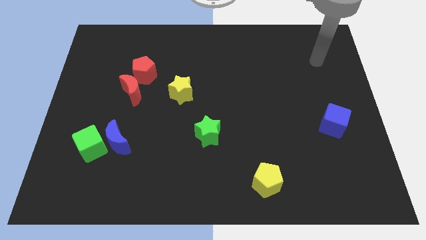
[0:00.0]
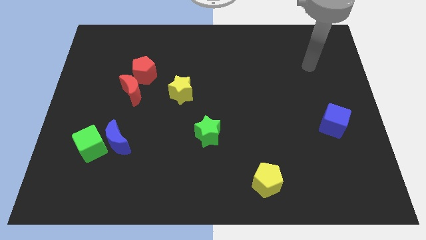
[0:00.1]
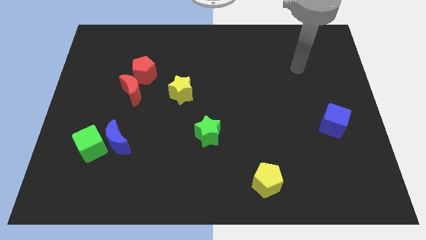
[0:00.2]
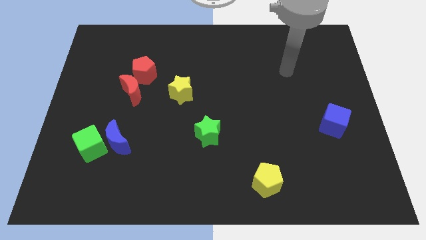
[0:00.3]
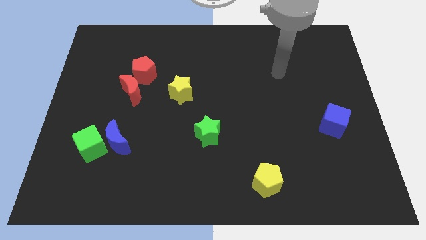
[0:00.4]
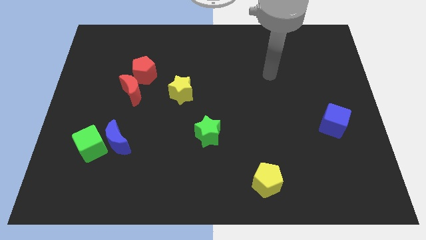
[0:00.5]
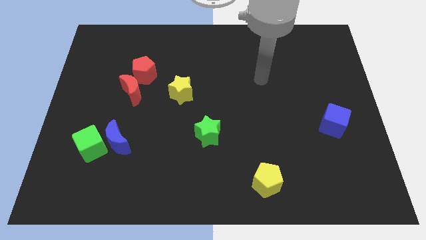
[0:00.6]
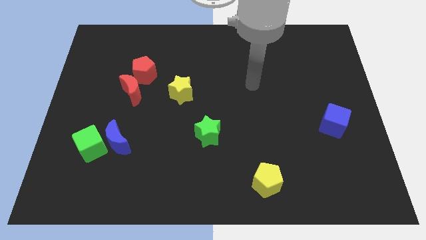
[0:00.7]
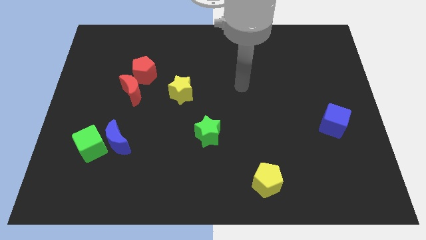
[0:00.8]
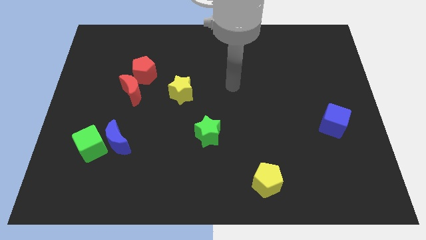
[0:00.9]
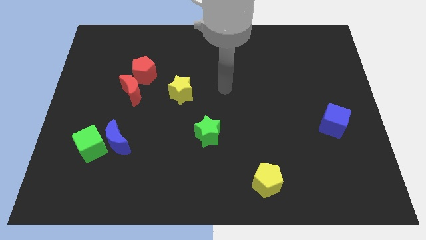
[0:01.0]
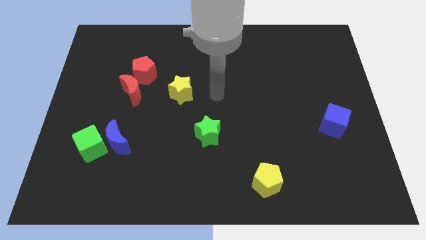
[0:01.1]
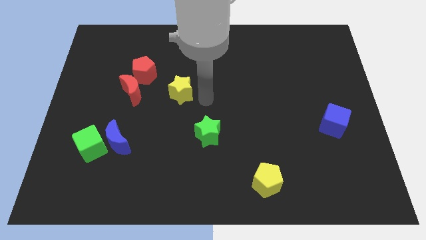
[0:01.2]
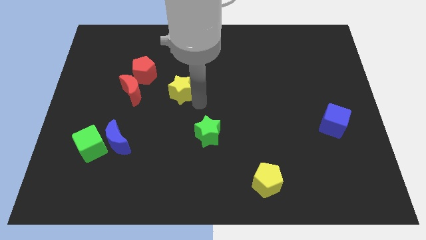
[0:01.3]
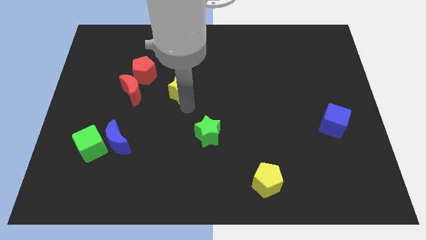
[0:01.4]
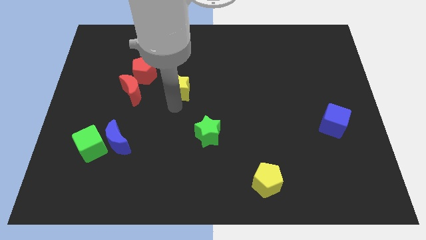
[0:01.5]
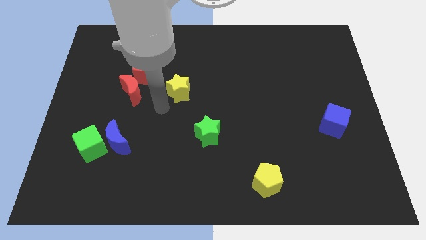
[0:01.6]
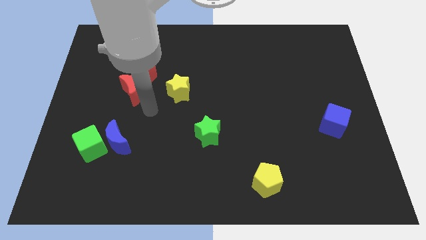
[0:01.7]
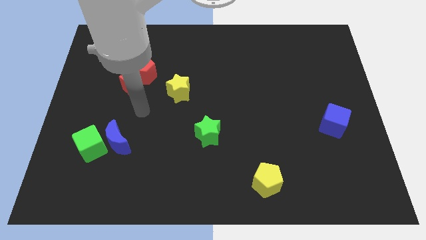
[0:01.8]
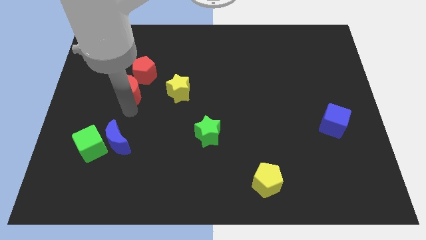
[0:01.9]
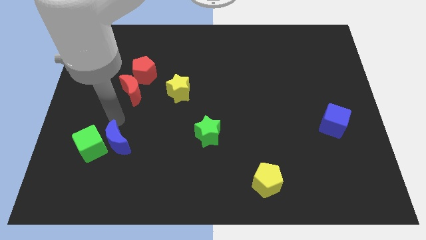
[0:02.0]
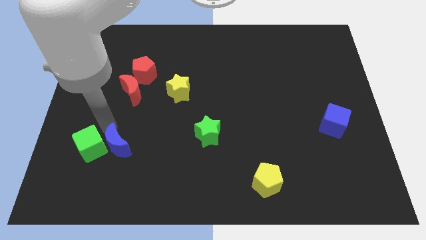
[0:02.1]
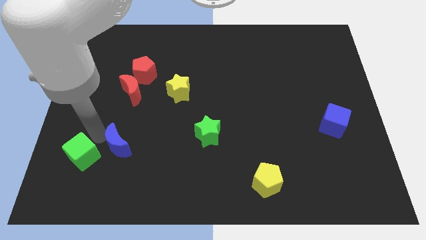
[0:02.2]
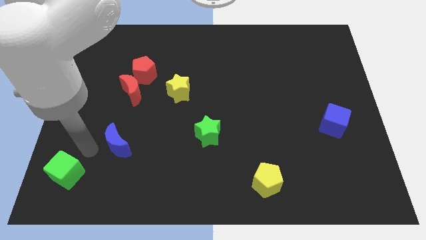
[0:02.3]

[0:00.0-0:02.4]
separate the blue moon from the green cube

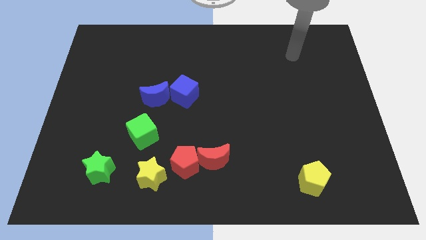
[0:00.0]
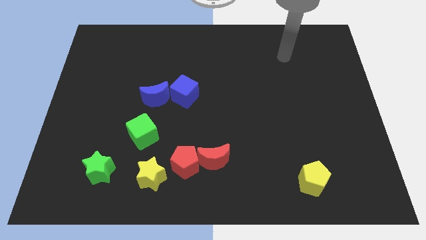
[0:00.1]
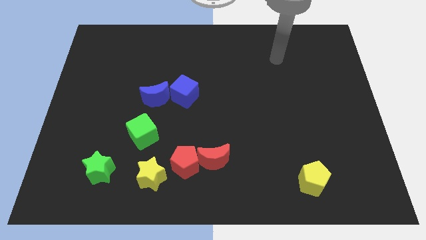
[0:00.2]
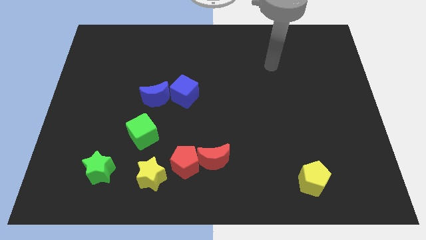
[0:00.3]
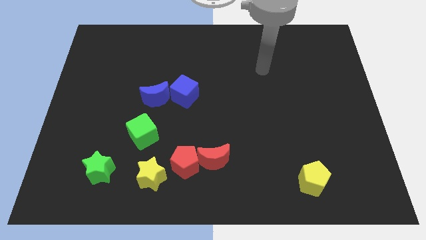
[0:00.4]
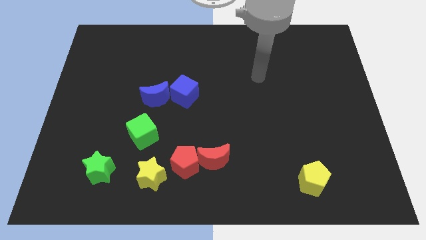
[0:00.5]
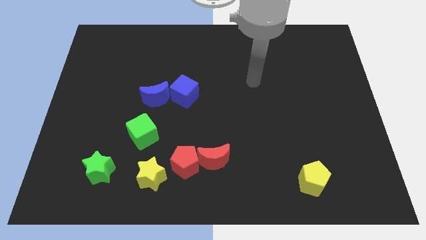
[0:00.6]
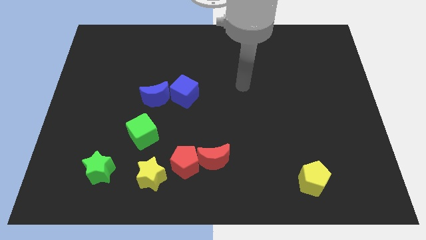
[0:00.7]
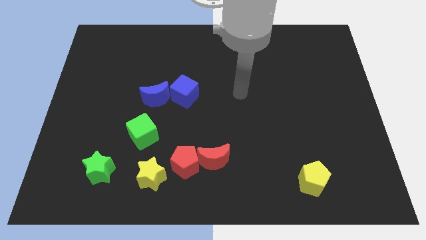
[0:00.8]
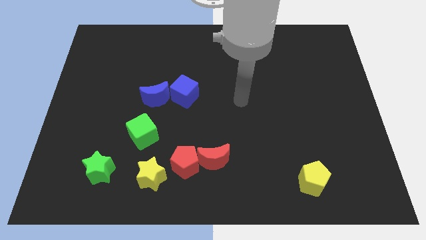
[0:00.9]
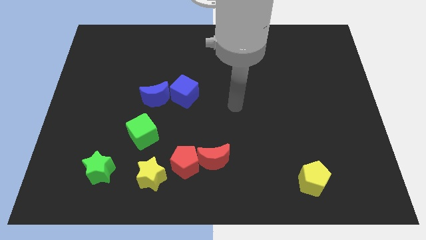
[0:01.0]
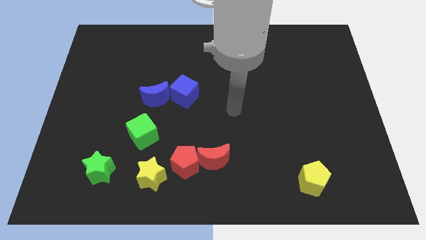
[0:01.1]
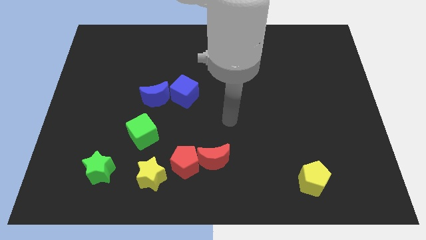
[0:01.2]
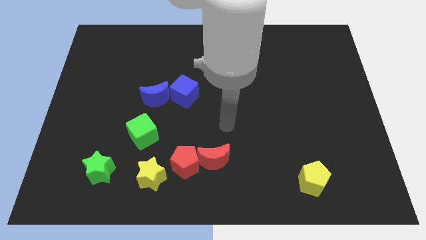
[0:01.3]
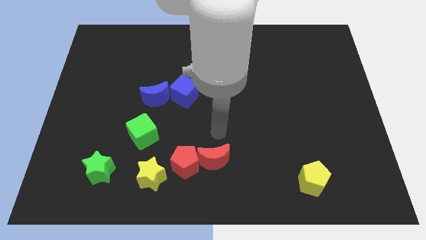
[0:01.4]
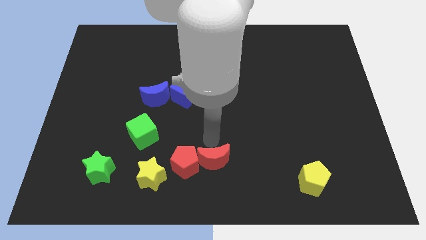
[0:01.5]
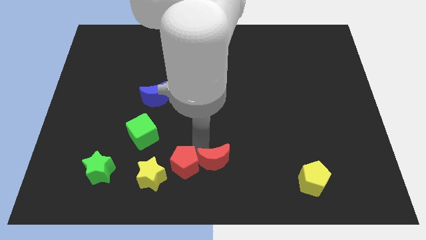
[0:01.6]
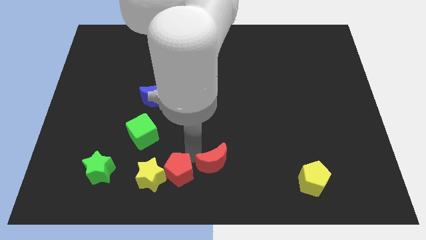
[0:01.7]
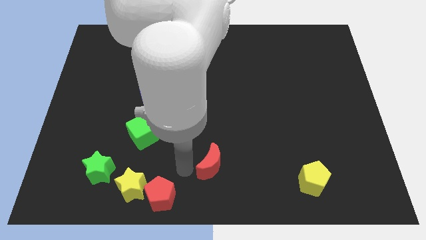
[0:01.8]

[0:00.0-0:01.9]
separate the red moon from the red pentagon

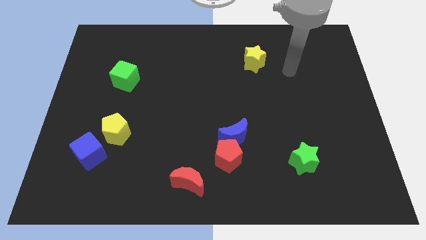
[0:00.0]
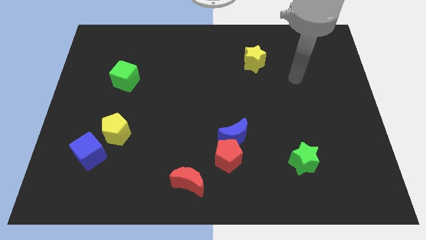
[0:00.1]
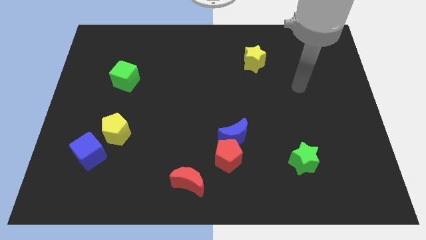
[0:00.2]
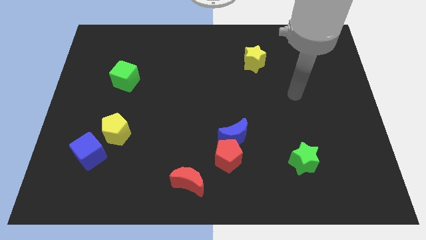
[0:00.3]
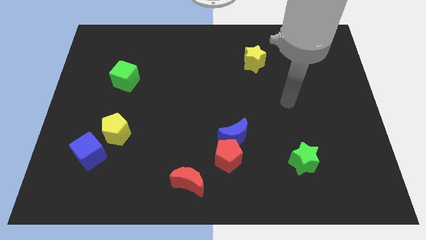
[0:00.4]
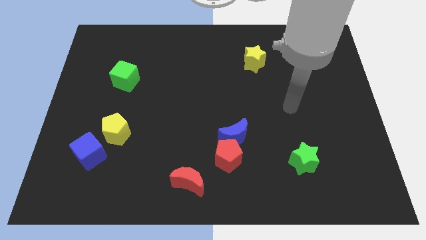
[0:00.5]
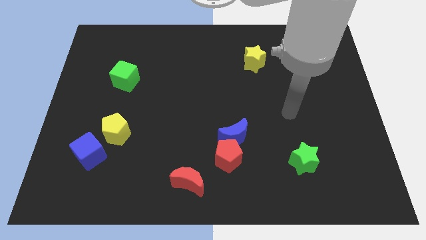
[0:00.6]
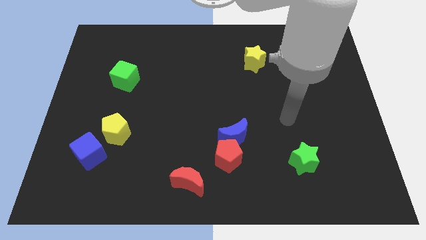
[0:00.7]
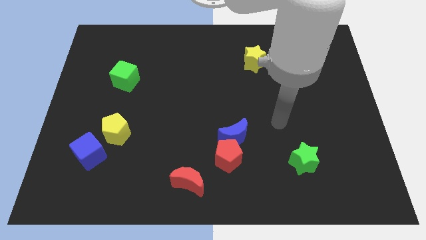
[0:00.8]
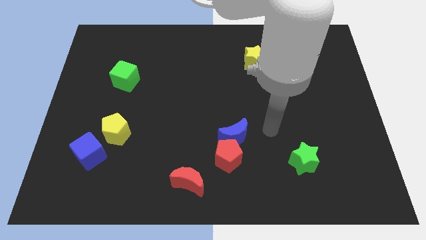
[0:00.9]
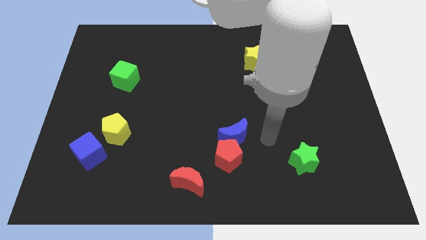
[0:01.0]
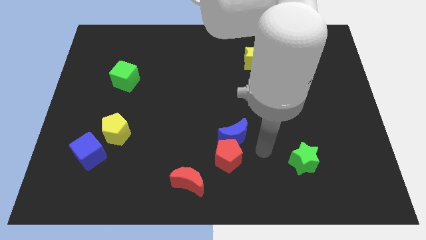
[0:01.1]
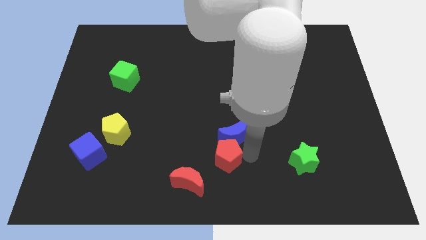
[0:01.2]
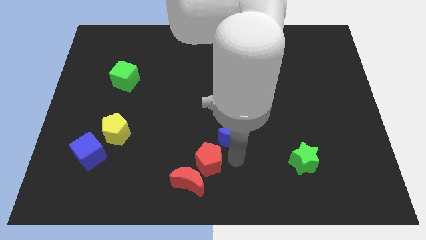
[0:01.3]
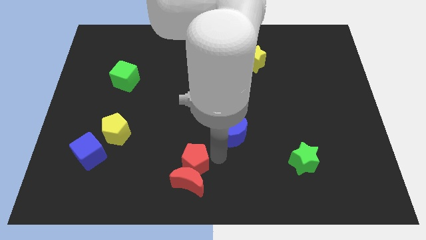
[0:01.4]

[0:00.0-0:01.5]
pull the blue moon apart from the red pentagon

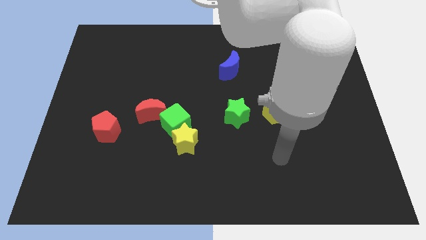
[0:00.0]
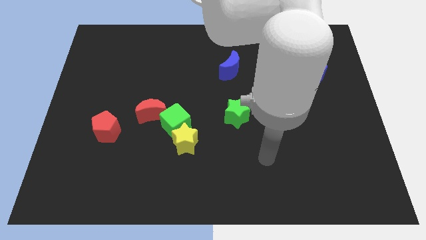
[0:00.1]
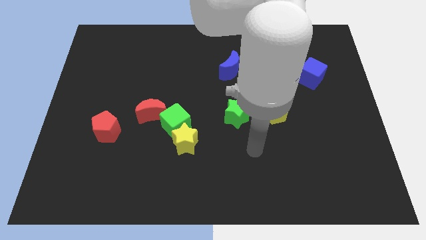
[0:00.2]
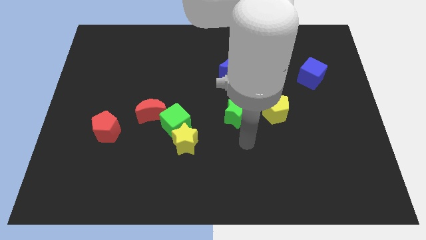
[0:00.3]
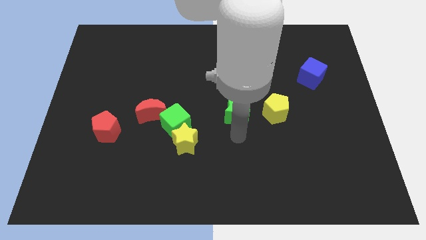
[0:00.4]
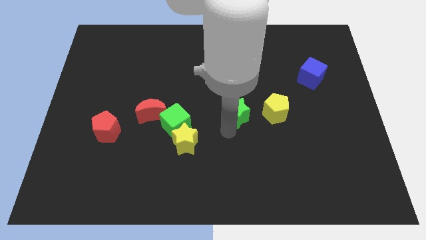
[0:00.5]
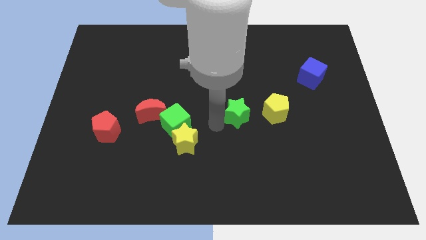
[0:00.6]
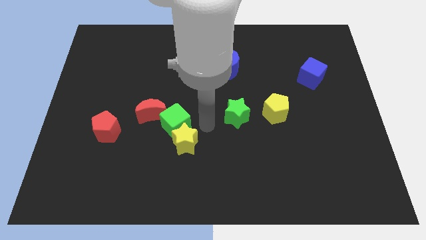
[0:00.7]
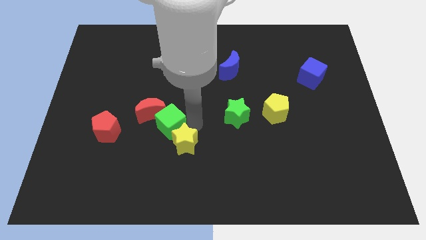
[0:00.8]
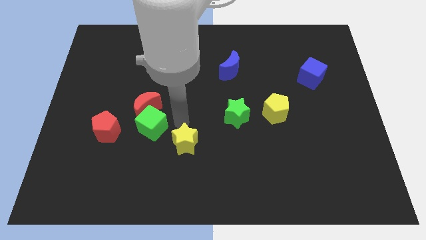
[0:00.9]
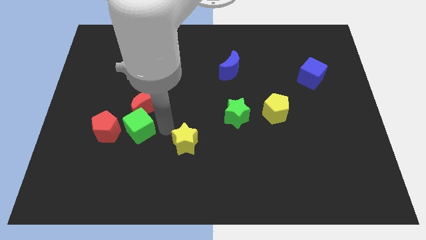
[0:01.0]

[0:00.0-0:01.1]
pull the yellow star apart from the green cube

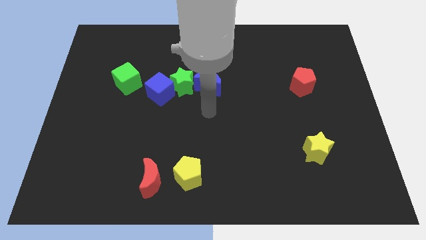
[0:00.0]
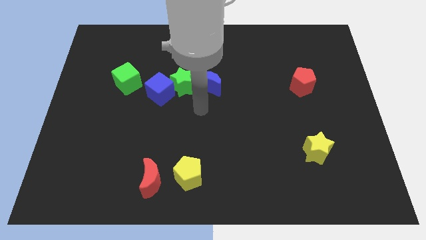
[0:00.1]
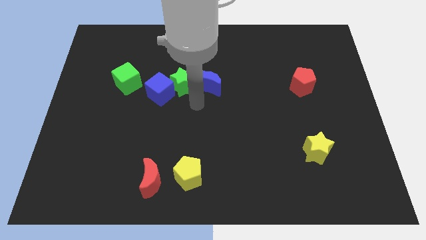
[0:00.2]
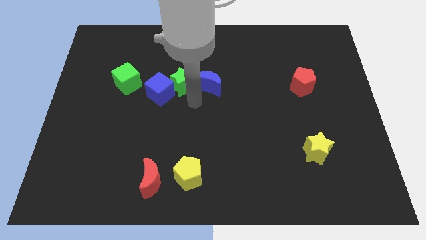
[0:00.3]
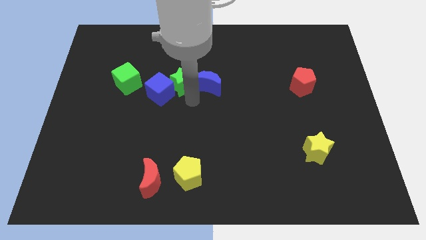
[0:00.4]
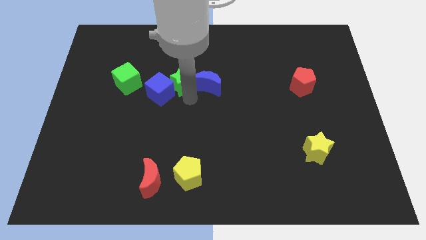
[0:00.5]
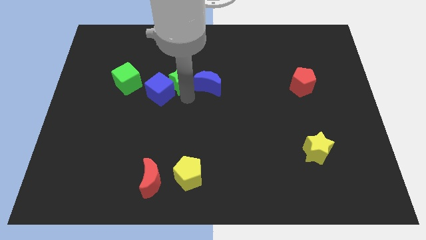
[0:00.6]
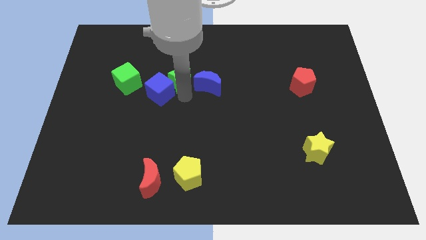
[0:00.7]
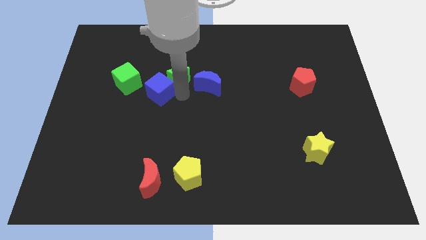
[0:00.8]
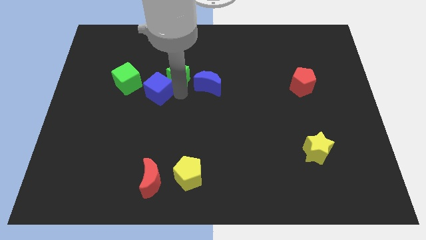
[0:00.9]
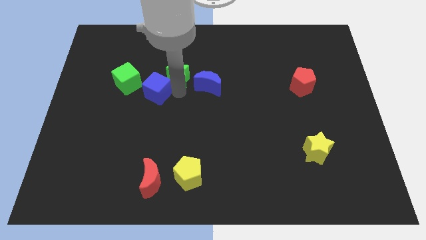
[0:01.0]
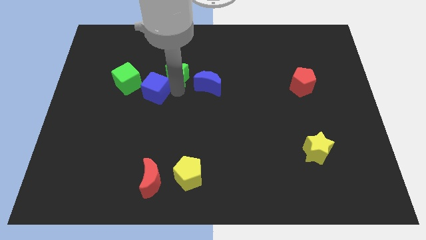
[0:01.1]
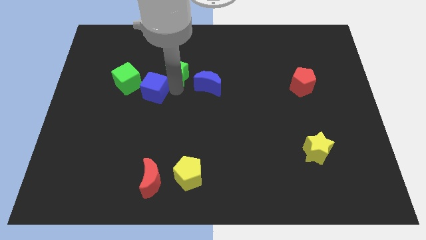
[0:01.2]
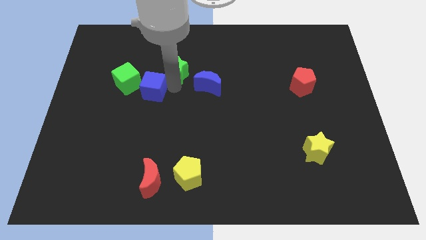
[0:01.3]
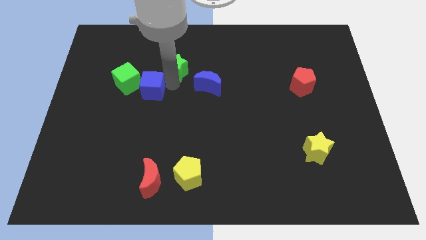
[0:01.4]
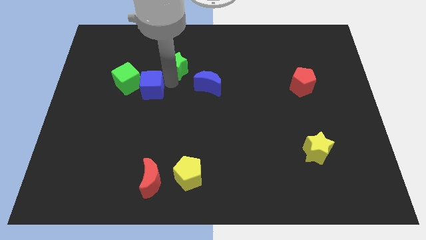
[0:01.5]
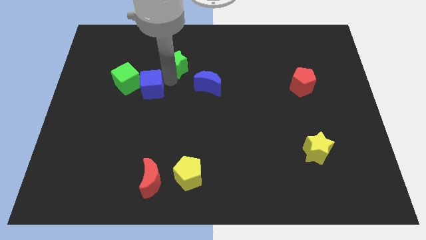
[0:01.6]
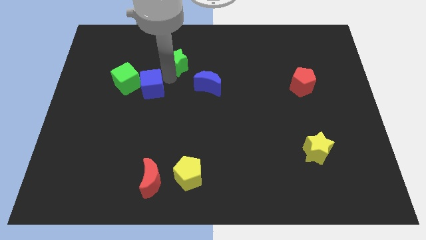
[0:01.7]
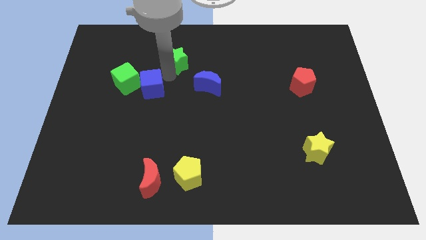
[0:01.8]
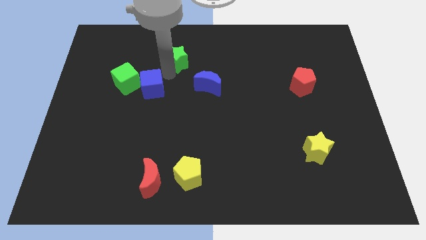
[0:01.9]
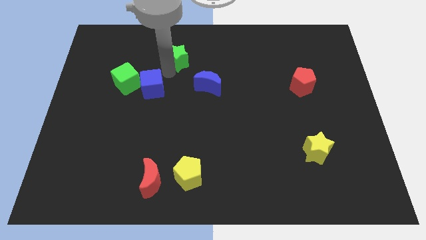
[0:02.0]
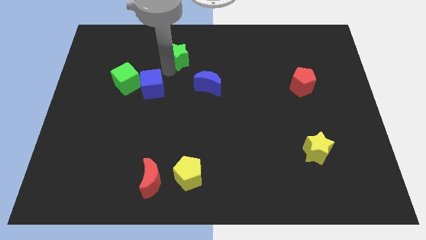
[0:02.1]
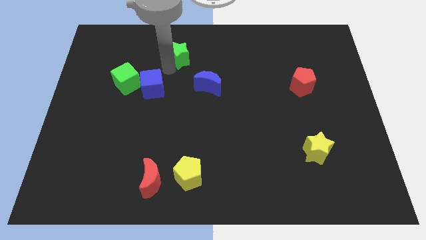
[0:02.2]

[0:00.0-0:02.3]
separate the green star from the blue cube and blue moon
